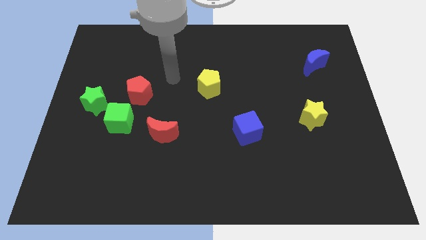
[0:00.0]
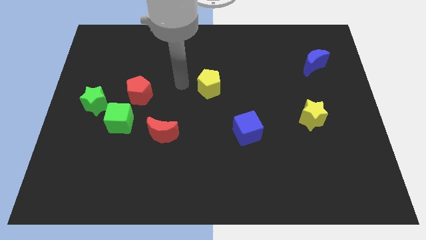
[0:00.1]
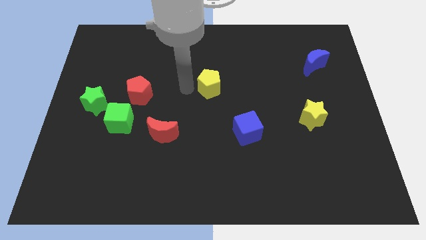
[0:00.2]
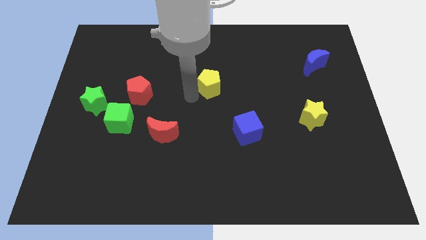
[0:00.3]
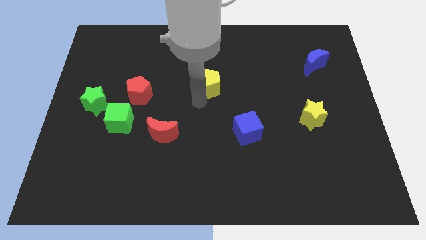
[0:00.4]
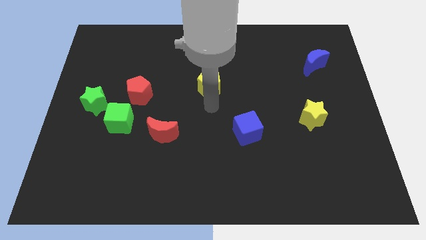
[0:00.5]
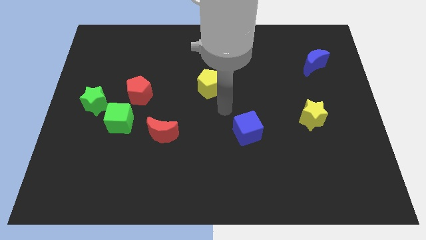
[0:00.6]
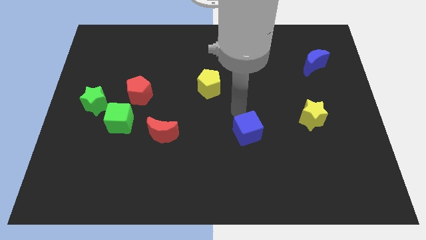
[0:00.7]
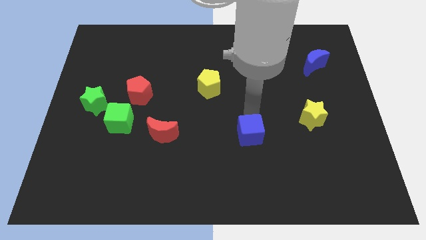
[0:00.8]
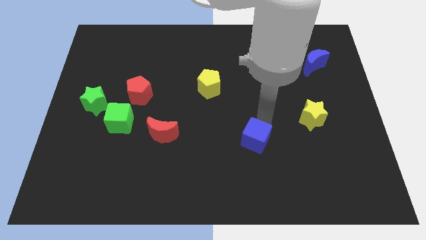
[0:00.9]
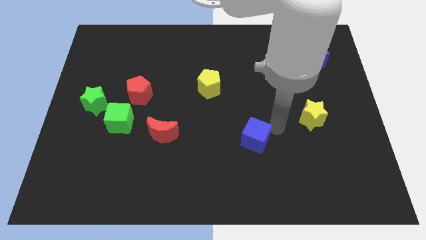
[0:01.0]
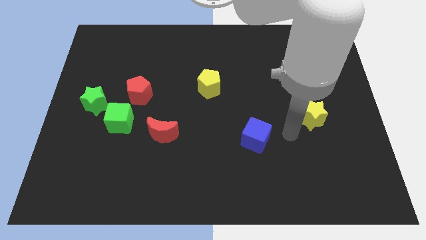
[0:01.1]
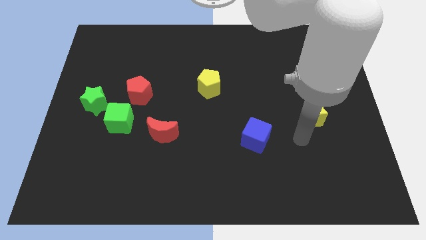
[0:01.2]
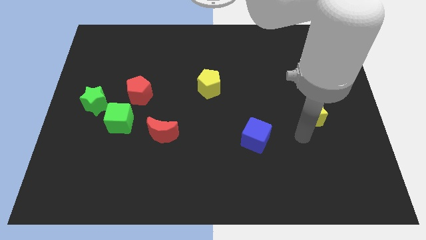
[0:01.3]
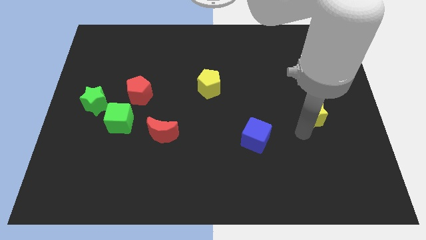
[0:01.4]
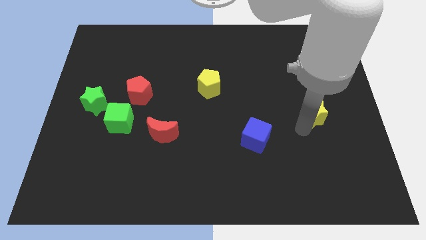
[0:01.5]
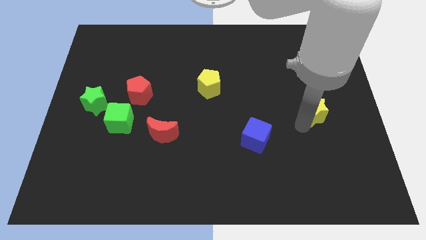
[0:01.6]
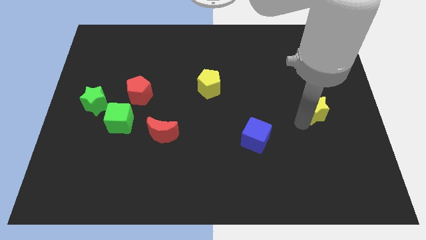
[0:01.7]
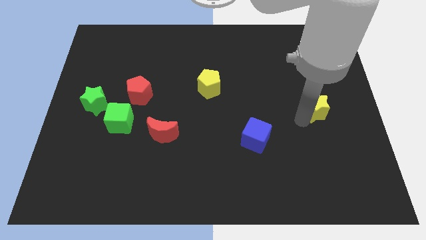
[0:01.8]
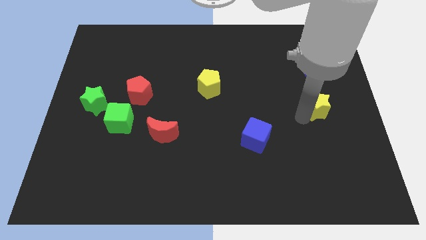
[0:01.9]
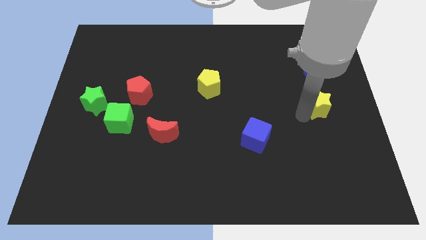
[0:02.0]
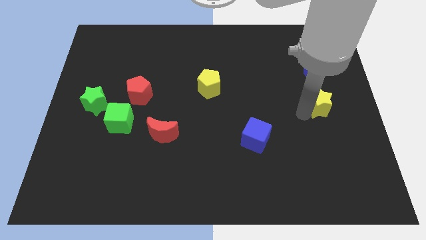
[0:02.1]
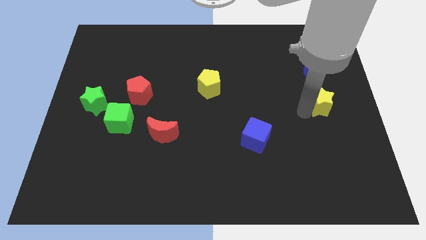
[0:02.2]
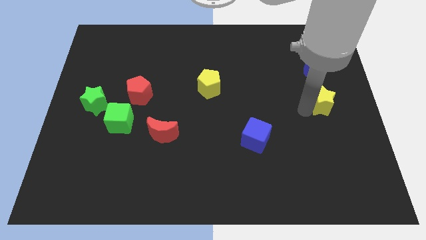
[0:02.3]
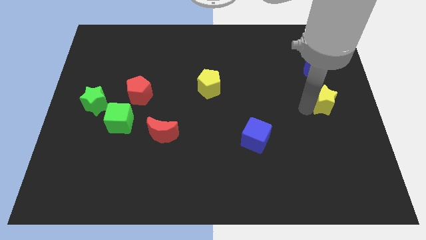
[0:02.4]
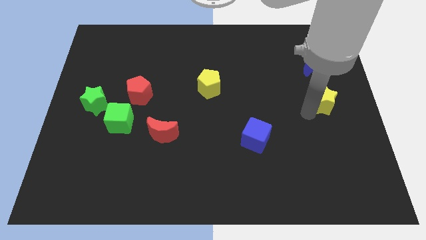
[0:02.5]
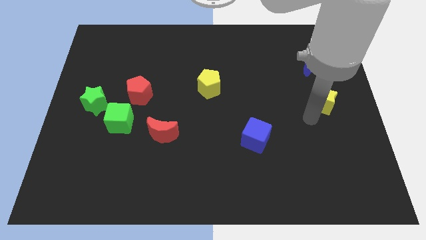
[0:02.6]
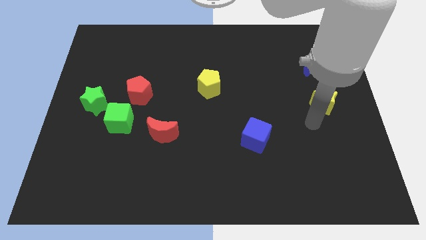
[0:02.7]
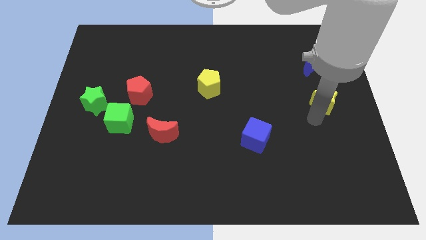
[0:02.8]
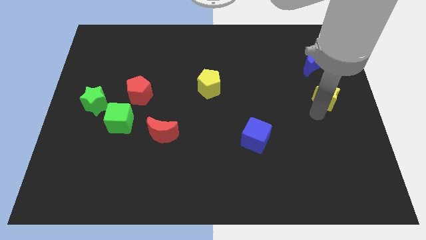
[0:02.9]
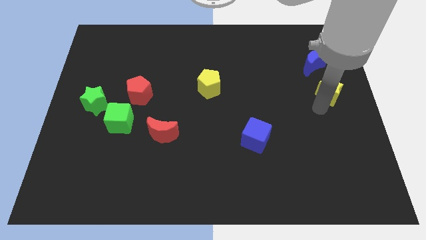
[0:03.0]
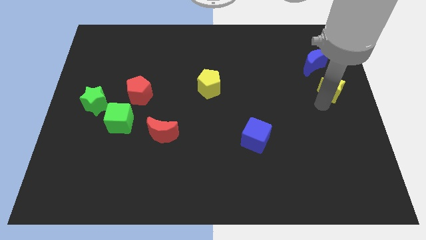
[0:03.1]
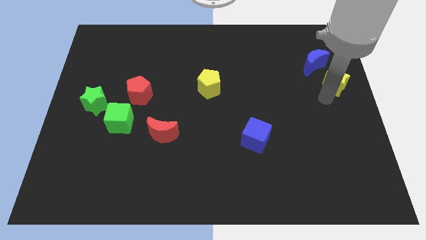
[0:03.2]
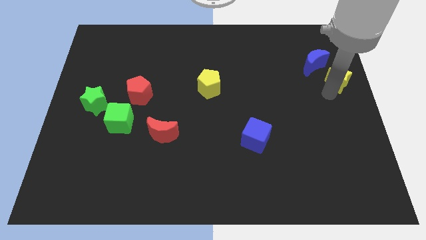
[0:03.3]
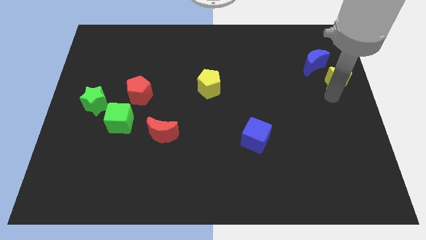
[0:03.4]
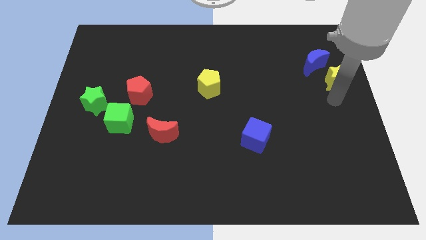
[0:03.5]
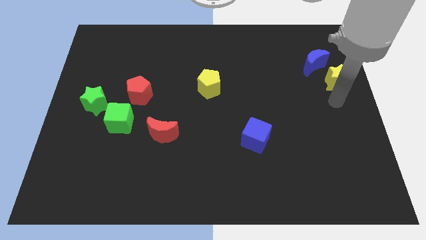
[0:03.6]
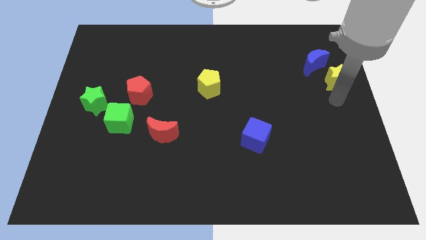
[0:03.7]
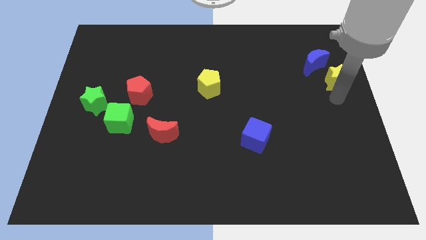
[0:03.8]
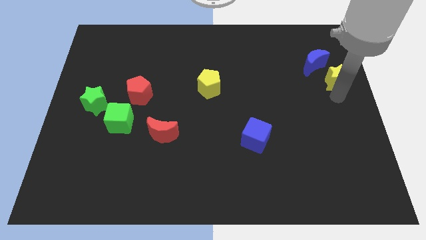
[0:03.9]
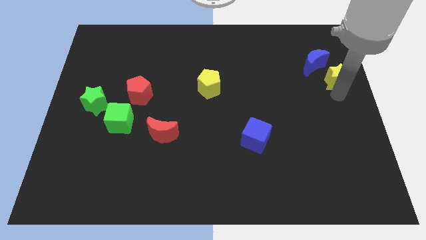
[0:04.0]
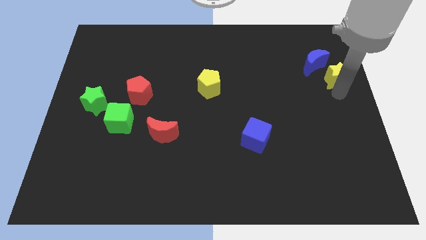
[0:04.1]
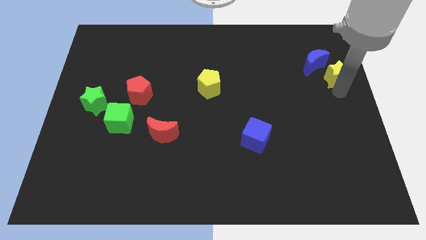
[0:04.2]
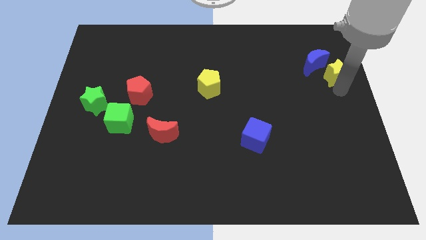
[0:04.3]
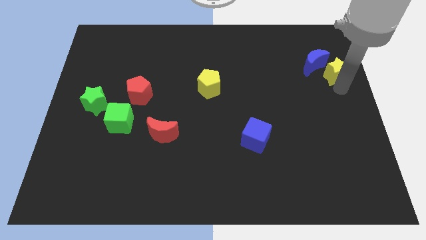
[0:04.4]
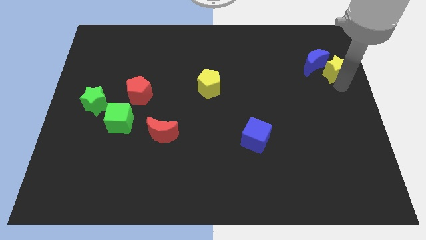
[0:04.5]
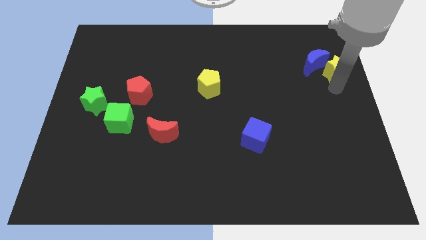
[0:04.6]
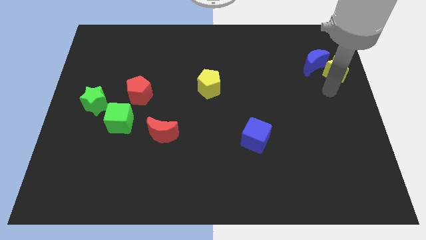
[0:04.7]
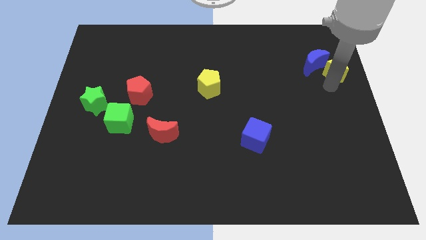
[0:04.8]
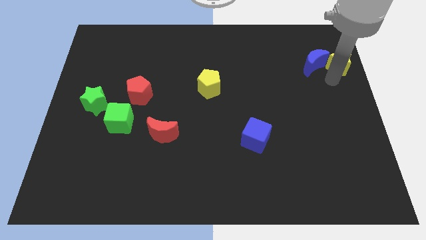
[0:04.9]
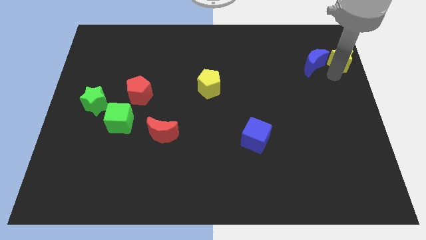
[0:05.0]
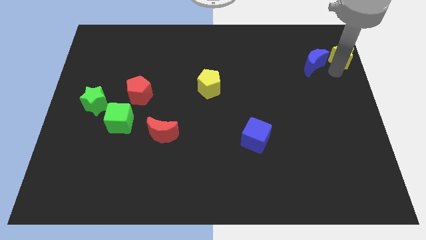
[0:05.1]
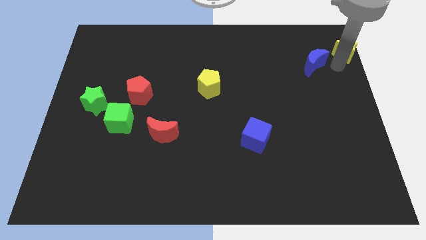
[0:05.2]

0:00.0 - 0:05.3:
put the yellow star to the upper right corner

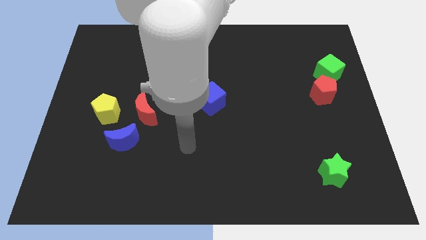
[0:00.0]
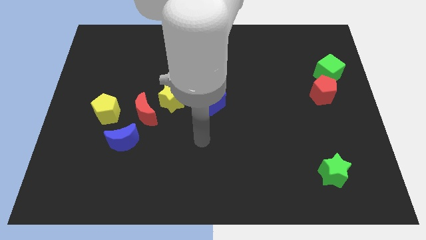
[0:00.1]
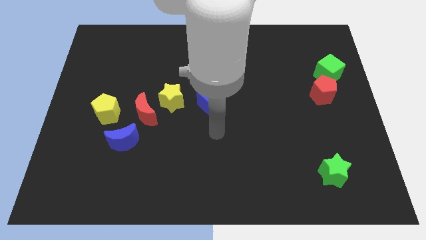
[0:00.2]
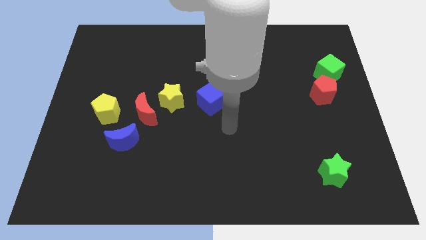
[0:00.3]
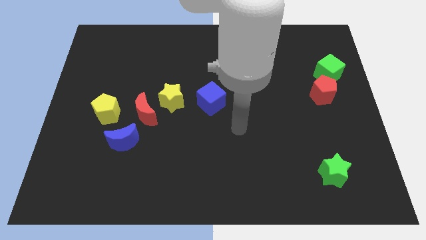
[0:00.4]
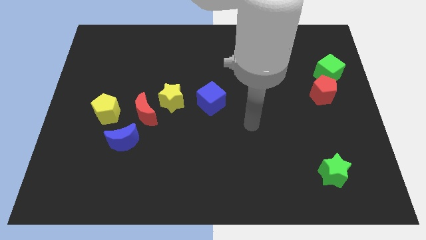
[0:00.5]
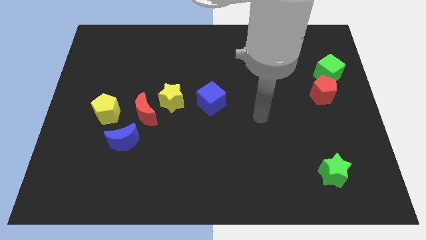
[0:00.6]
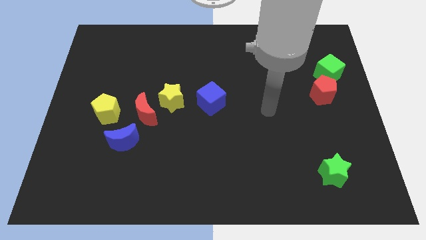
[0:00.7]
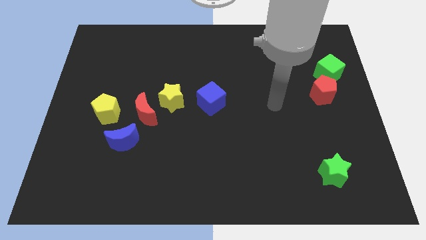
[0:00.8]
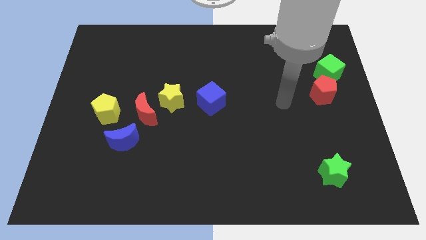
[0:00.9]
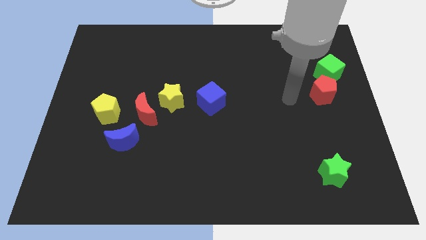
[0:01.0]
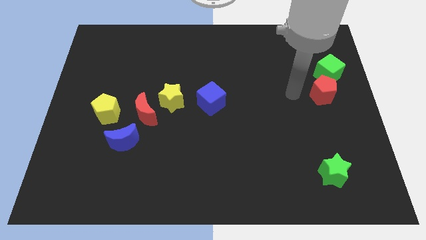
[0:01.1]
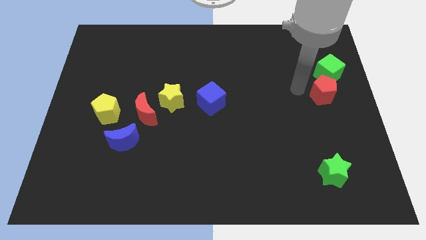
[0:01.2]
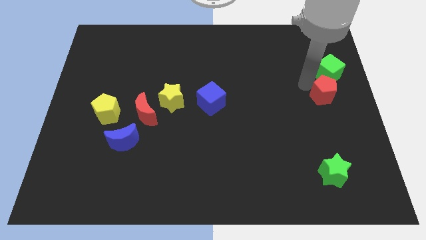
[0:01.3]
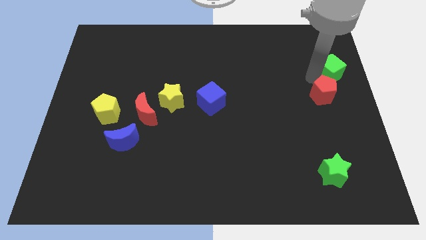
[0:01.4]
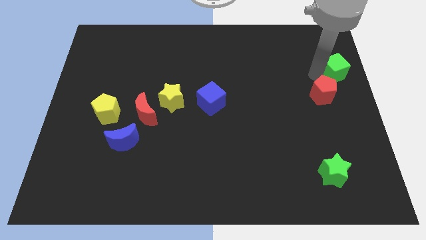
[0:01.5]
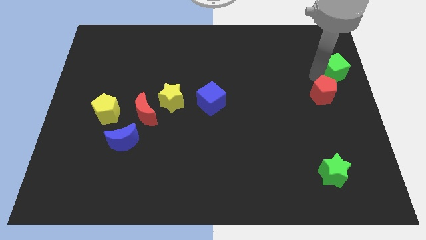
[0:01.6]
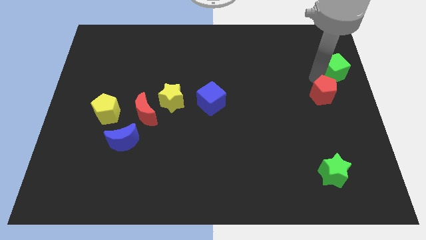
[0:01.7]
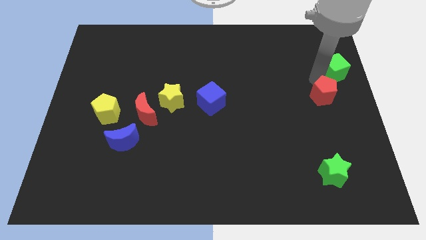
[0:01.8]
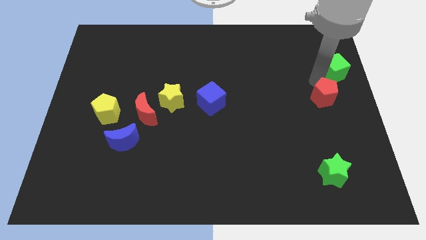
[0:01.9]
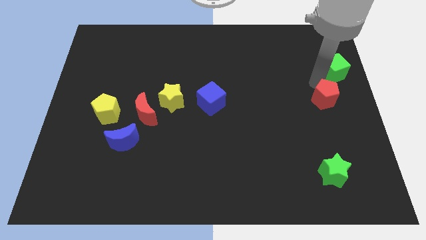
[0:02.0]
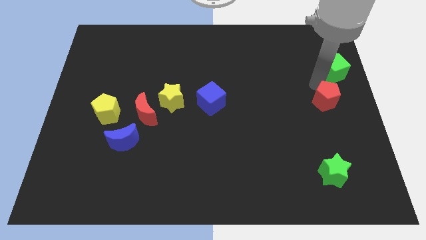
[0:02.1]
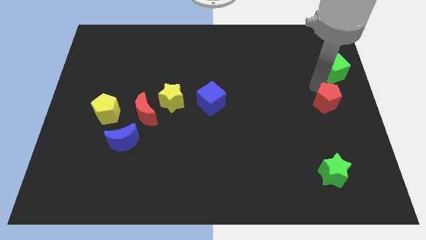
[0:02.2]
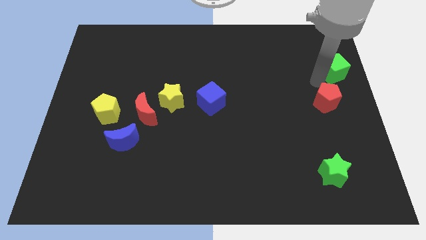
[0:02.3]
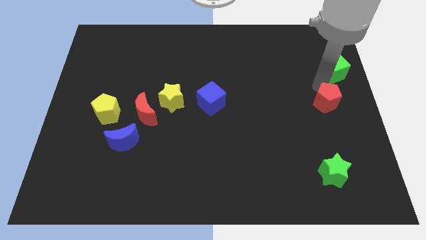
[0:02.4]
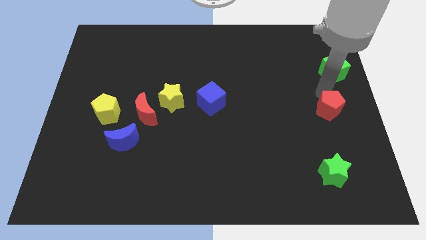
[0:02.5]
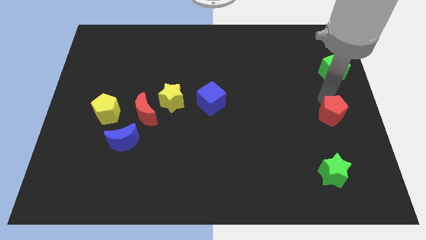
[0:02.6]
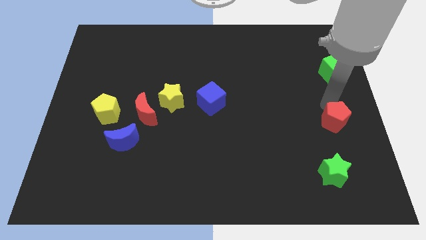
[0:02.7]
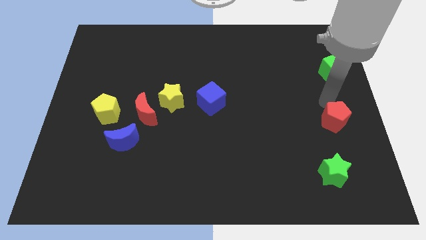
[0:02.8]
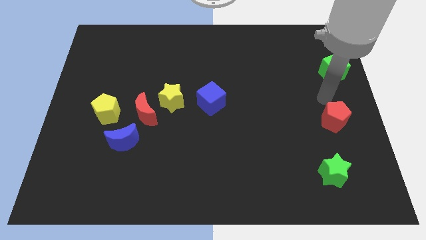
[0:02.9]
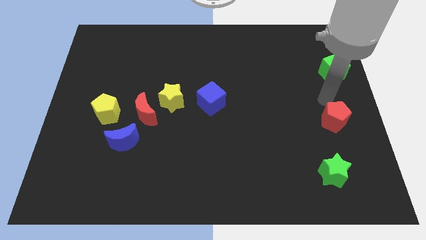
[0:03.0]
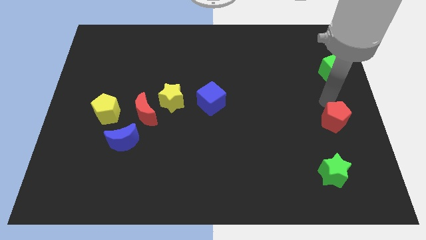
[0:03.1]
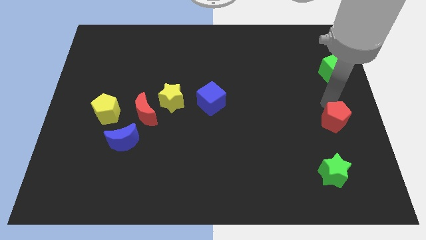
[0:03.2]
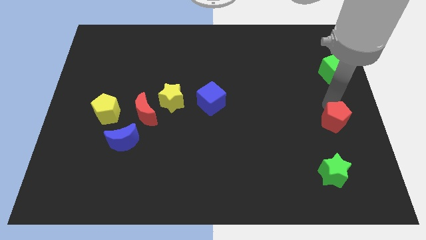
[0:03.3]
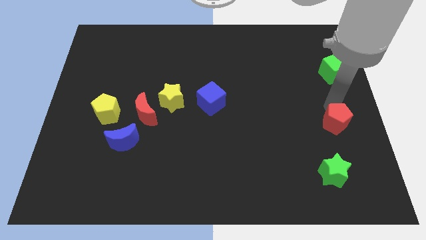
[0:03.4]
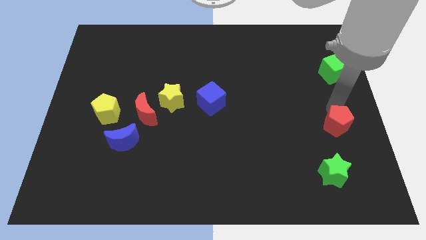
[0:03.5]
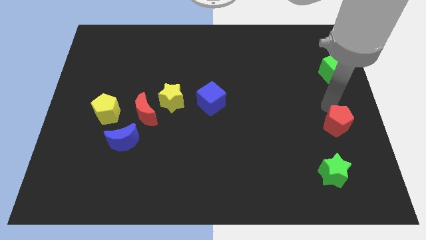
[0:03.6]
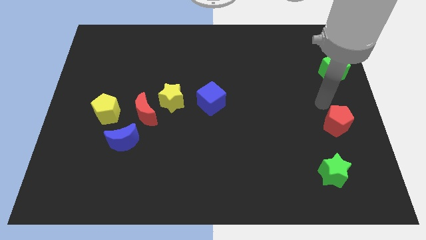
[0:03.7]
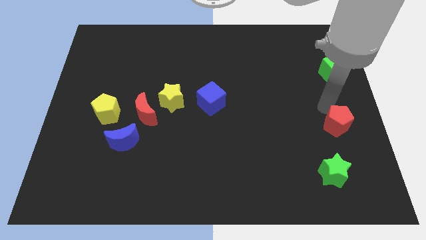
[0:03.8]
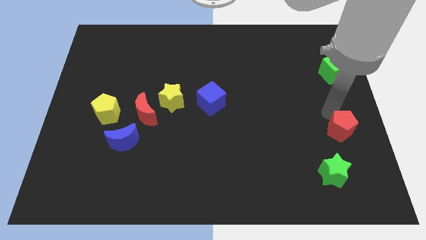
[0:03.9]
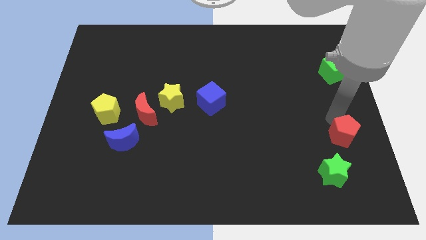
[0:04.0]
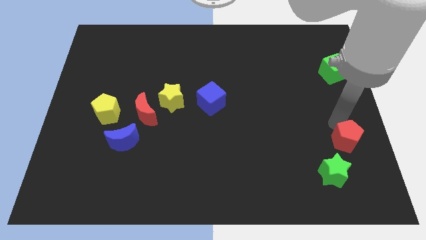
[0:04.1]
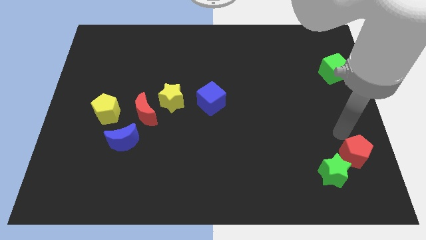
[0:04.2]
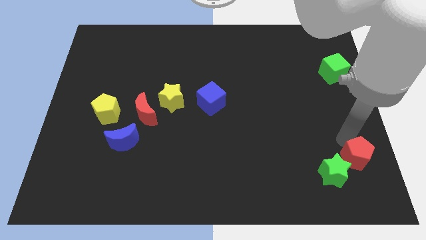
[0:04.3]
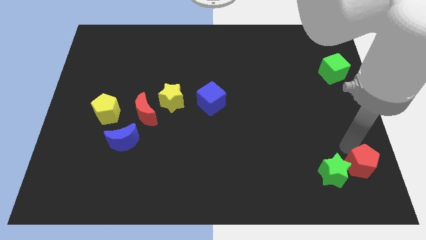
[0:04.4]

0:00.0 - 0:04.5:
slide the red pentagon to the bottom right
